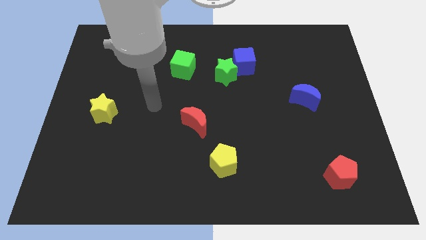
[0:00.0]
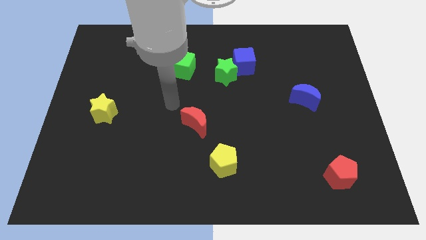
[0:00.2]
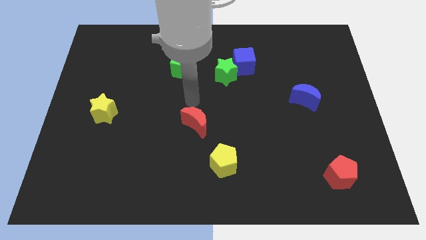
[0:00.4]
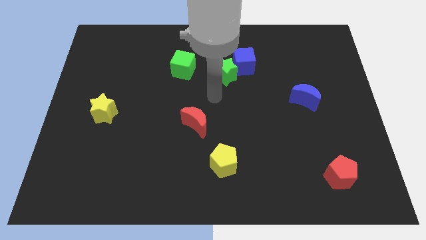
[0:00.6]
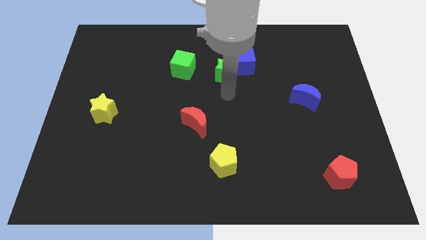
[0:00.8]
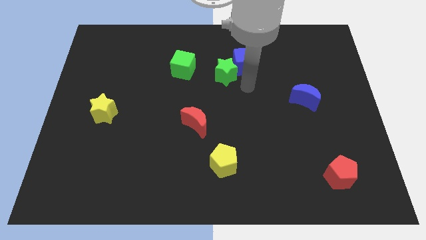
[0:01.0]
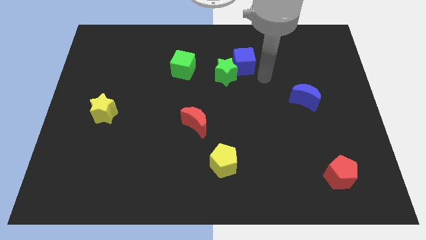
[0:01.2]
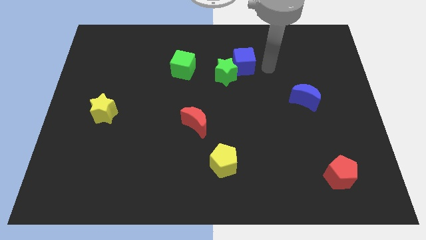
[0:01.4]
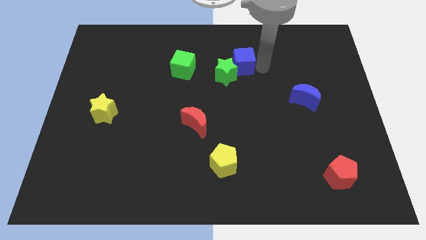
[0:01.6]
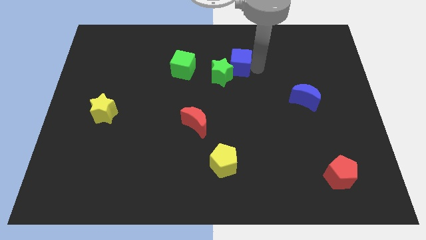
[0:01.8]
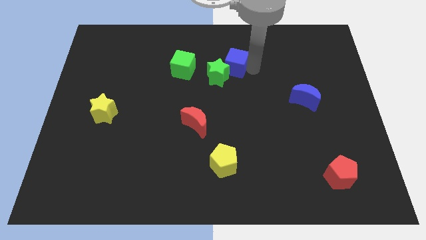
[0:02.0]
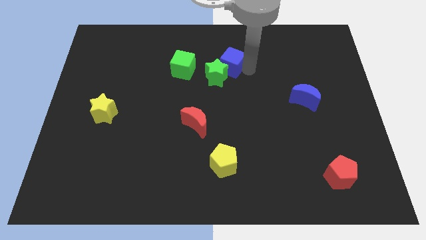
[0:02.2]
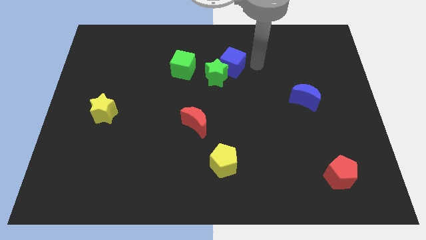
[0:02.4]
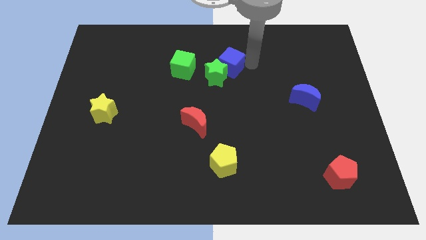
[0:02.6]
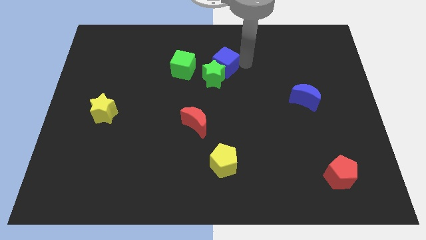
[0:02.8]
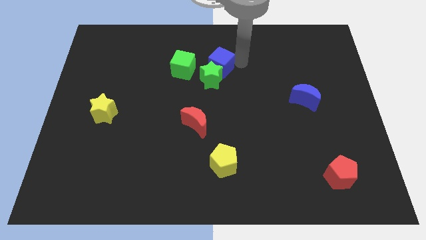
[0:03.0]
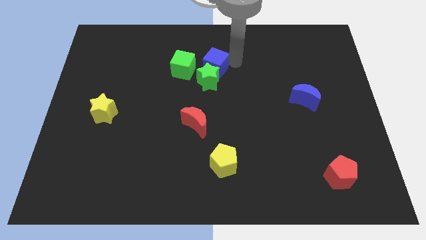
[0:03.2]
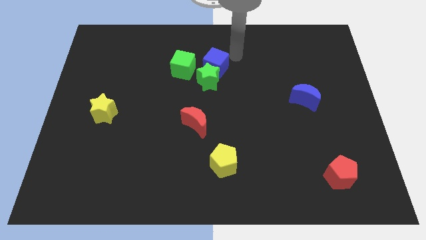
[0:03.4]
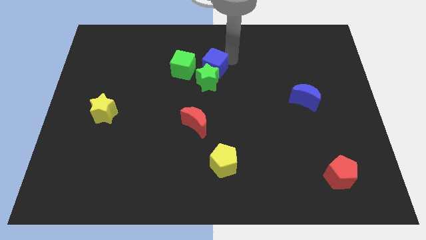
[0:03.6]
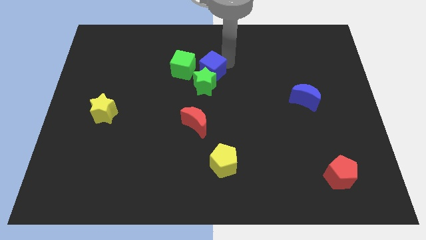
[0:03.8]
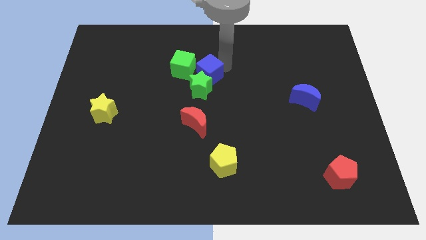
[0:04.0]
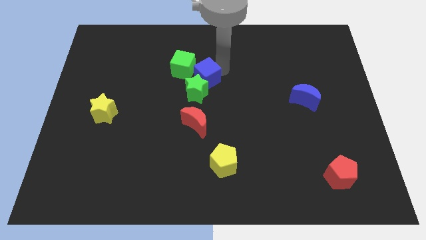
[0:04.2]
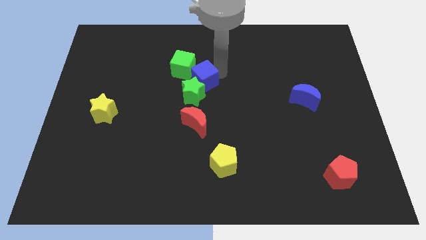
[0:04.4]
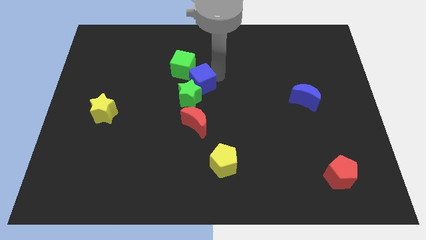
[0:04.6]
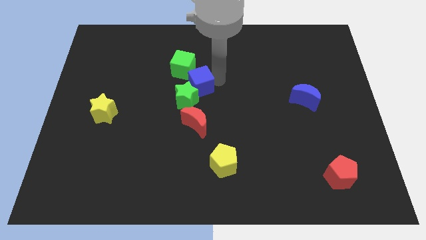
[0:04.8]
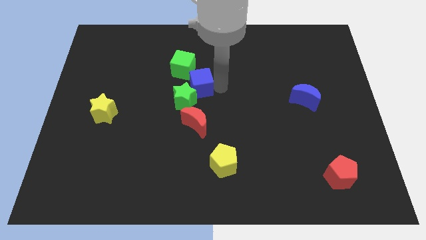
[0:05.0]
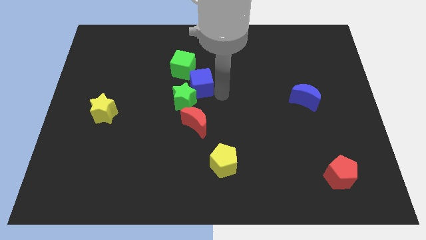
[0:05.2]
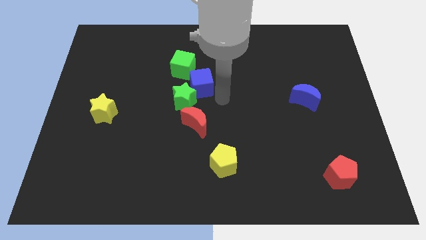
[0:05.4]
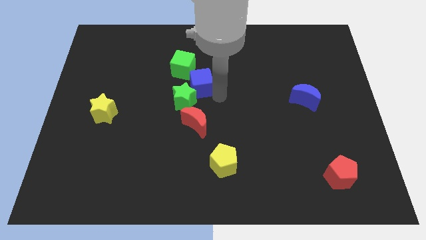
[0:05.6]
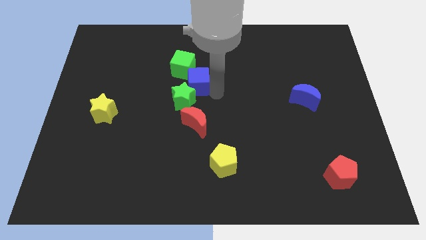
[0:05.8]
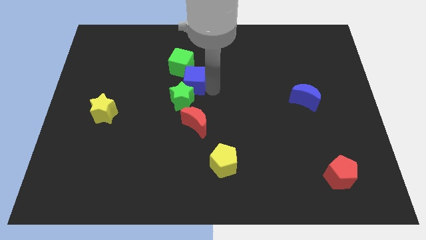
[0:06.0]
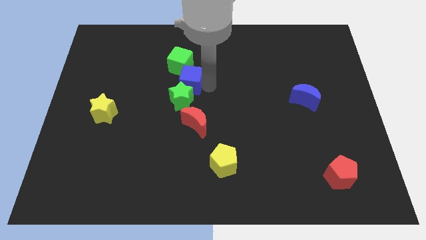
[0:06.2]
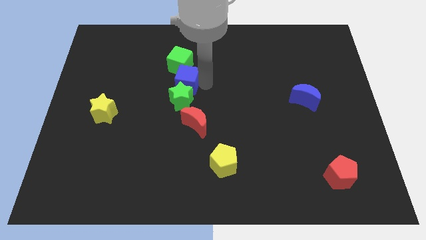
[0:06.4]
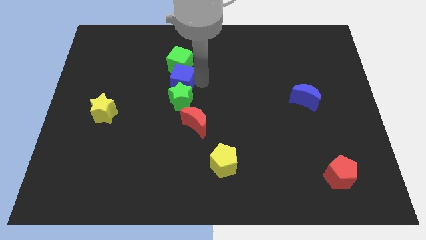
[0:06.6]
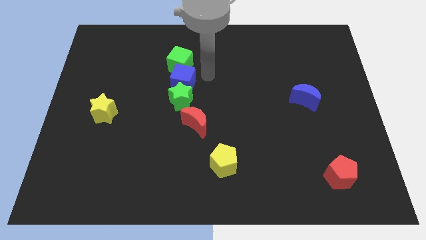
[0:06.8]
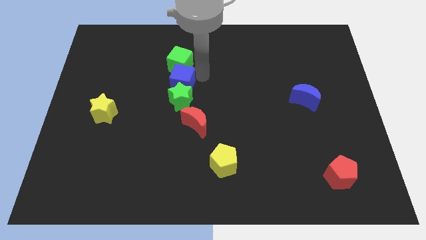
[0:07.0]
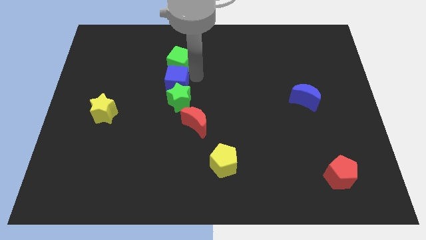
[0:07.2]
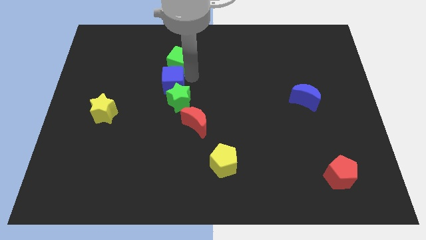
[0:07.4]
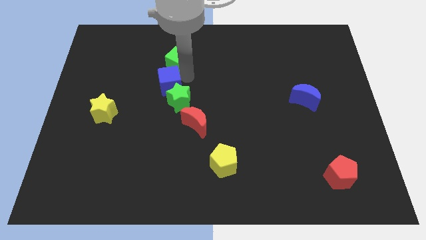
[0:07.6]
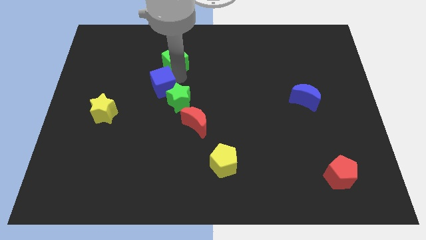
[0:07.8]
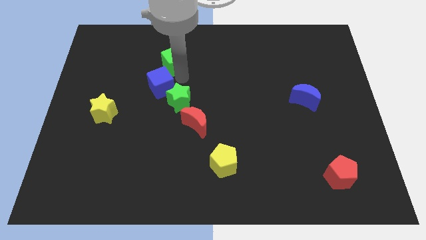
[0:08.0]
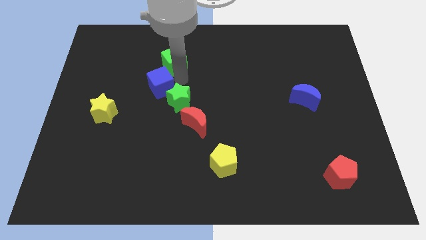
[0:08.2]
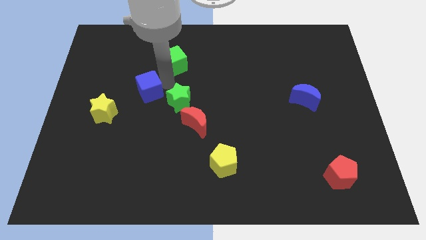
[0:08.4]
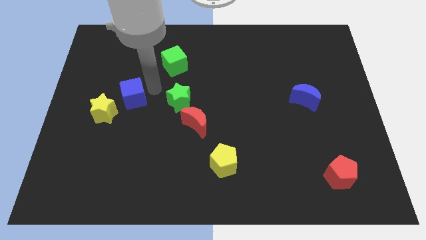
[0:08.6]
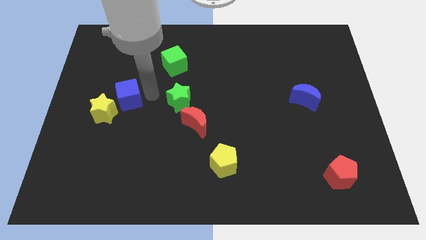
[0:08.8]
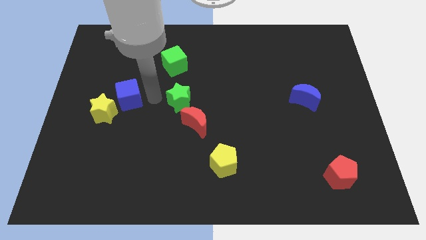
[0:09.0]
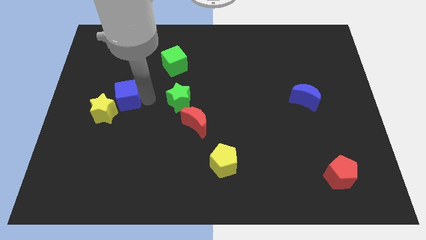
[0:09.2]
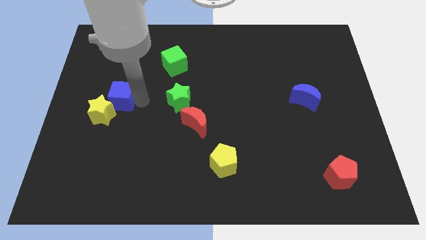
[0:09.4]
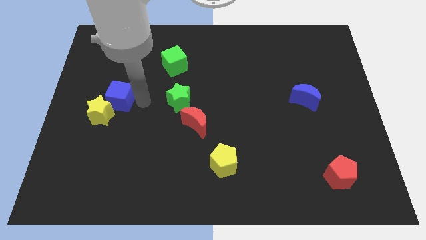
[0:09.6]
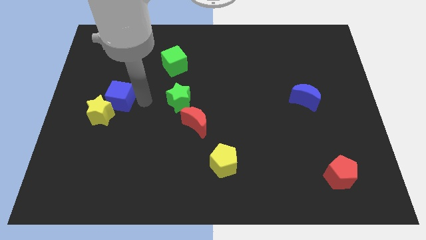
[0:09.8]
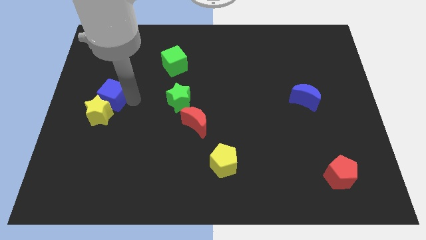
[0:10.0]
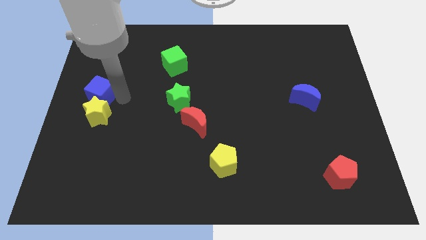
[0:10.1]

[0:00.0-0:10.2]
push the blue cube to the left side of the board

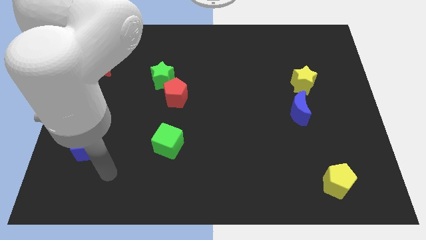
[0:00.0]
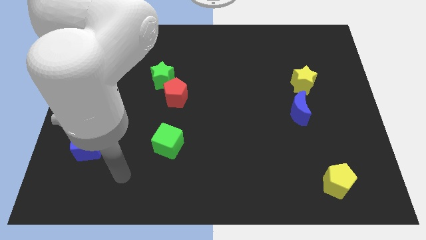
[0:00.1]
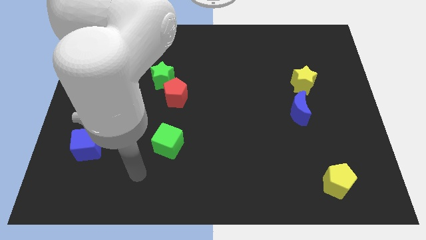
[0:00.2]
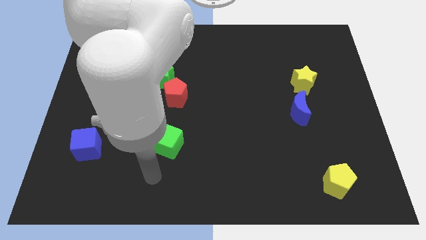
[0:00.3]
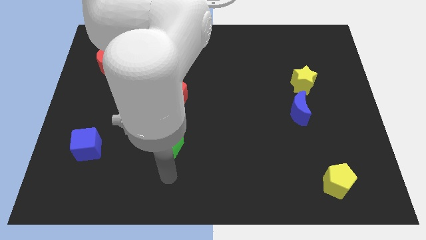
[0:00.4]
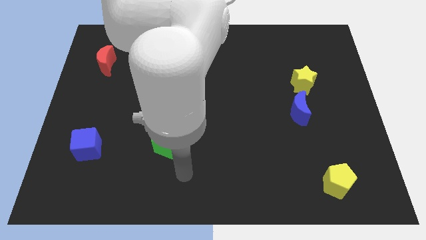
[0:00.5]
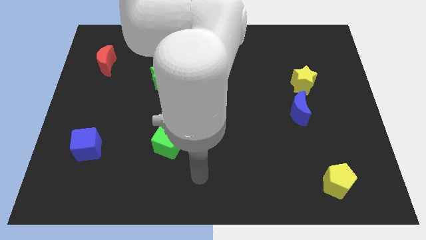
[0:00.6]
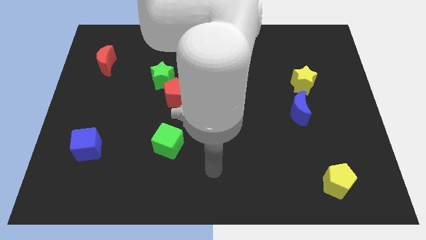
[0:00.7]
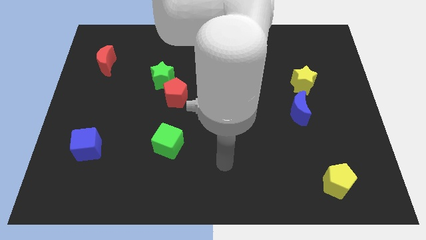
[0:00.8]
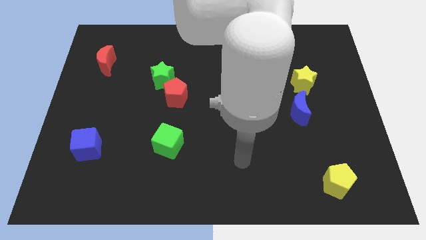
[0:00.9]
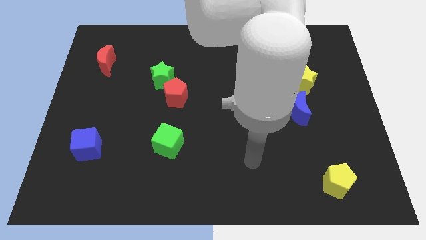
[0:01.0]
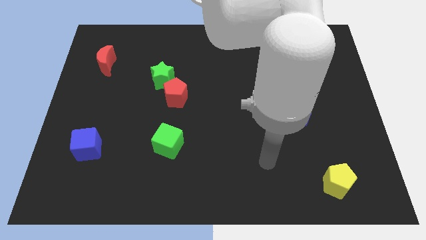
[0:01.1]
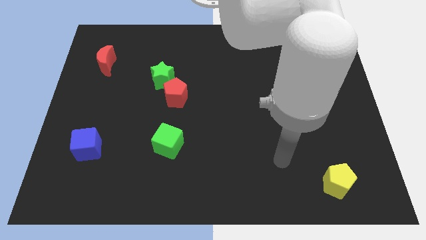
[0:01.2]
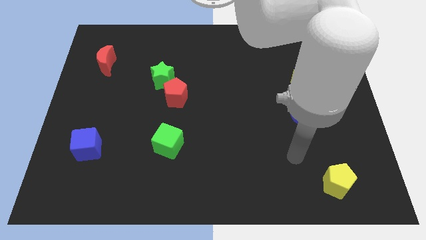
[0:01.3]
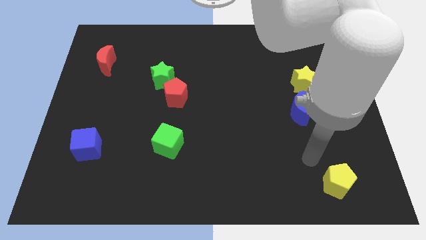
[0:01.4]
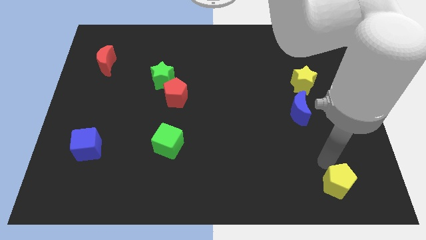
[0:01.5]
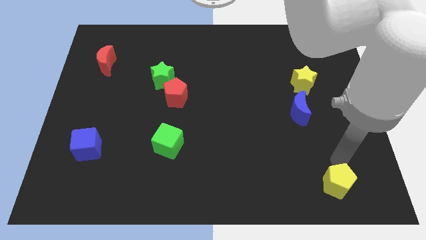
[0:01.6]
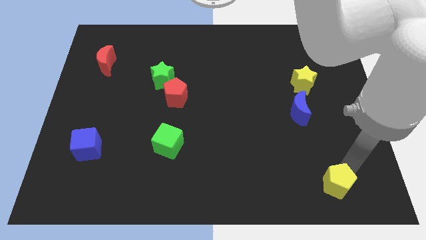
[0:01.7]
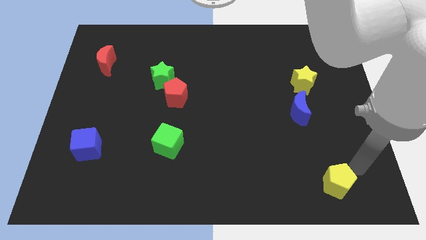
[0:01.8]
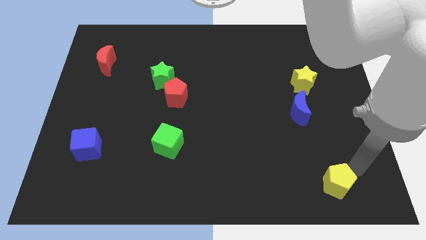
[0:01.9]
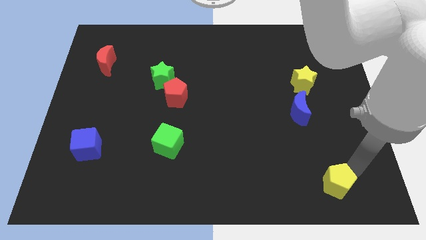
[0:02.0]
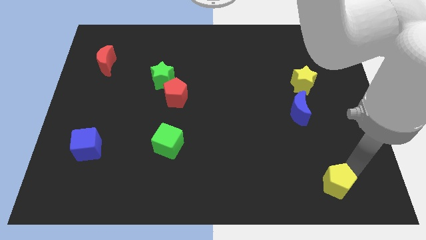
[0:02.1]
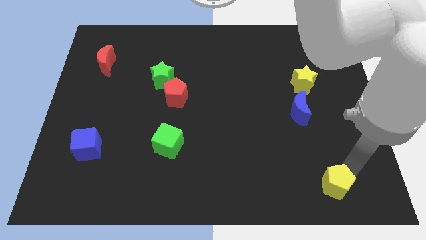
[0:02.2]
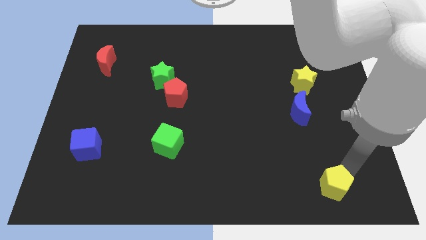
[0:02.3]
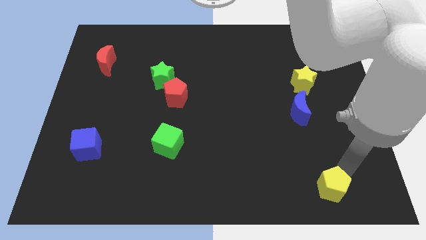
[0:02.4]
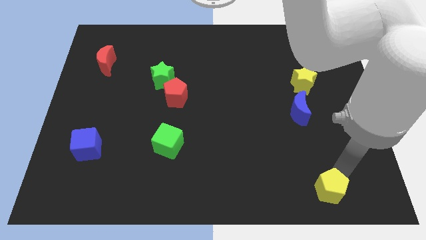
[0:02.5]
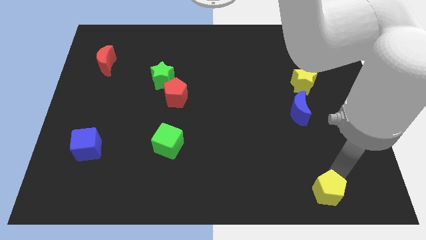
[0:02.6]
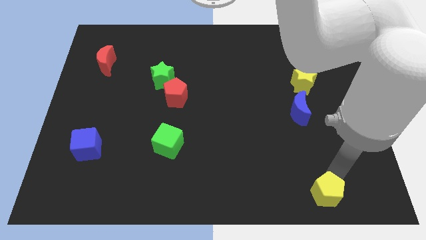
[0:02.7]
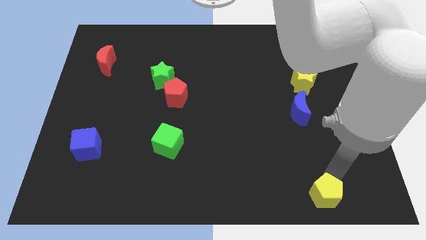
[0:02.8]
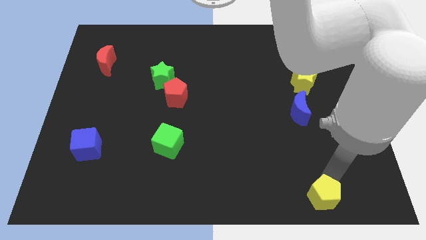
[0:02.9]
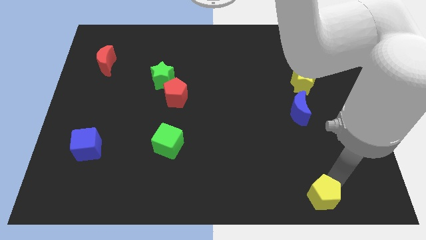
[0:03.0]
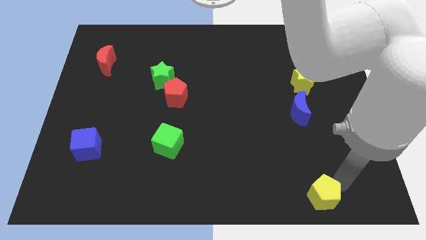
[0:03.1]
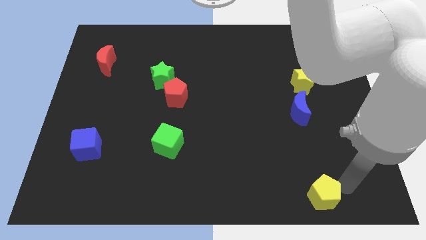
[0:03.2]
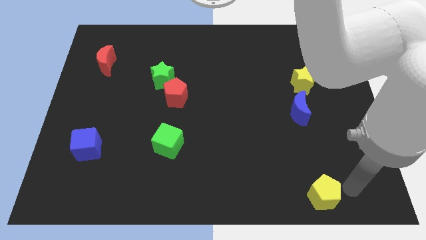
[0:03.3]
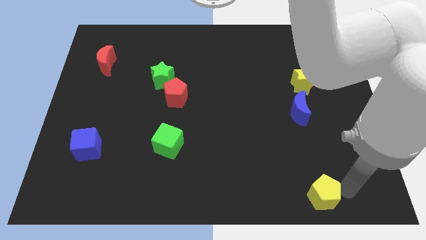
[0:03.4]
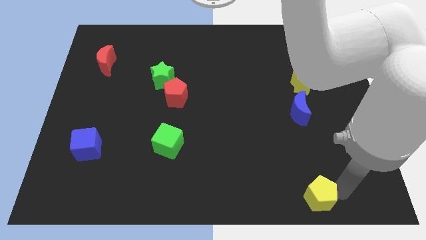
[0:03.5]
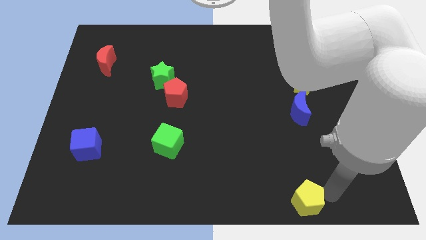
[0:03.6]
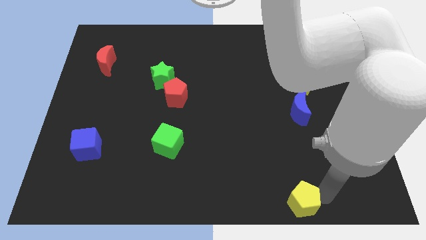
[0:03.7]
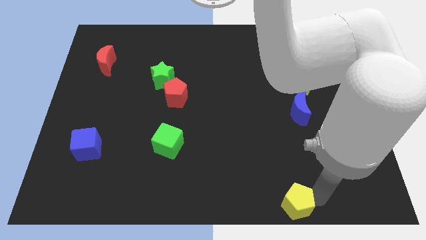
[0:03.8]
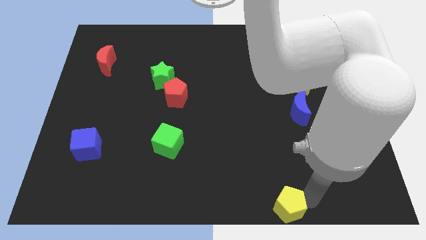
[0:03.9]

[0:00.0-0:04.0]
move the yellow pentagon to the bottom
